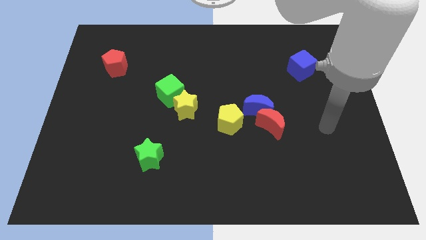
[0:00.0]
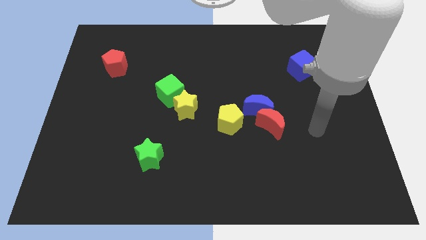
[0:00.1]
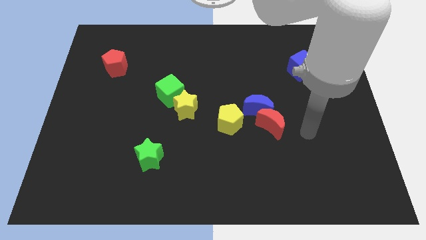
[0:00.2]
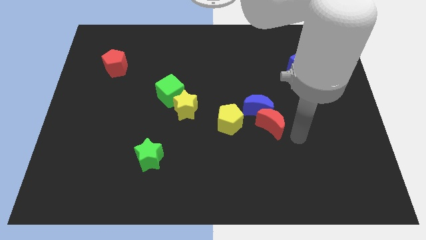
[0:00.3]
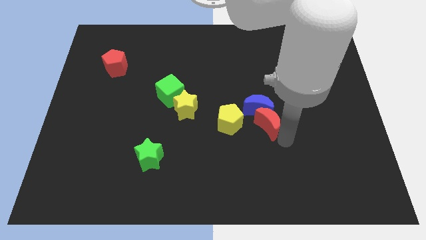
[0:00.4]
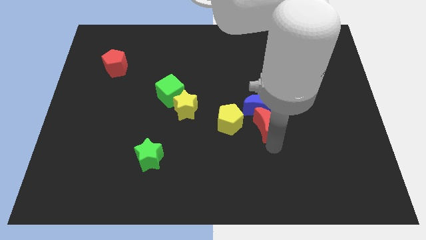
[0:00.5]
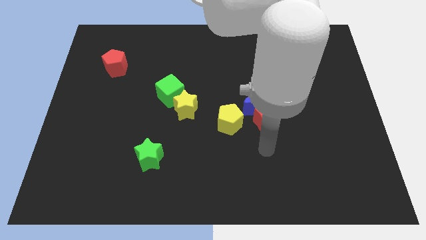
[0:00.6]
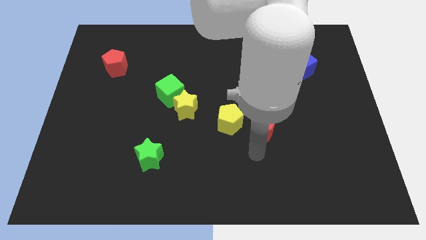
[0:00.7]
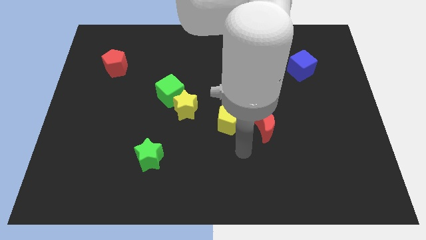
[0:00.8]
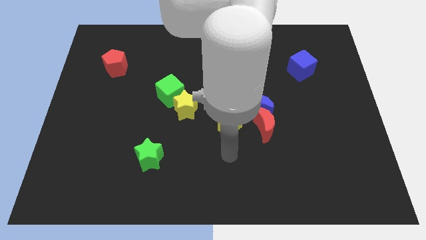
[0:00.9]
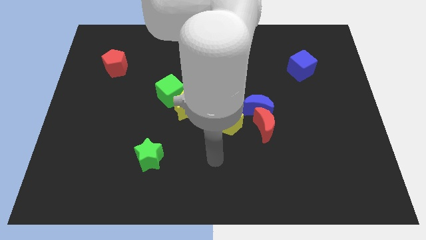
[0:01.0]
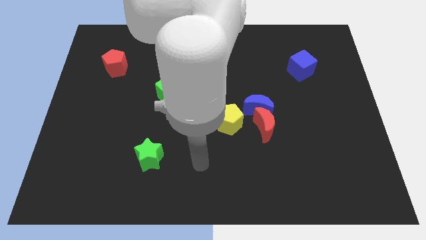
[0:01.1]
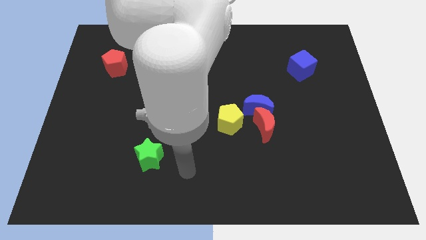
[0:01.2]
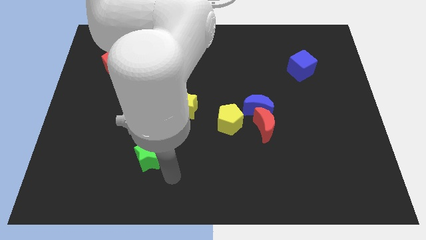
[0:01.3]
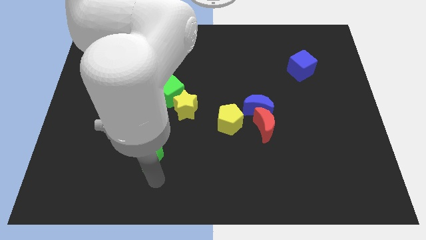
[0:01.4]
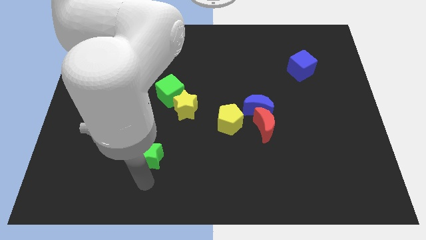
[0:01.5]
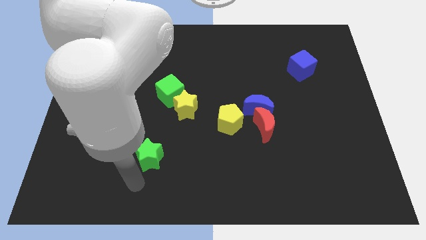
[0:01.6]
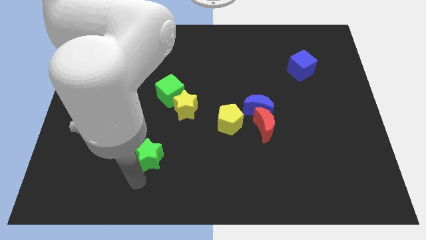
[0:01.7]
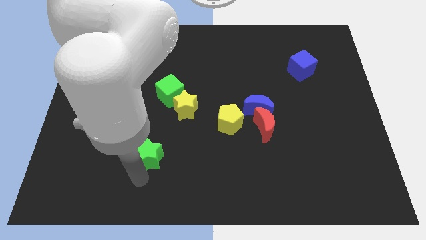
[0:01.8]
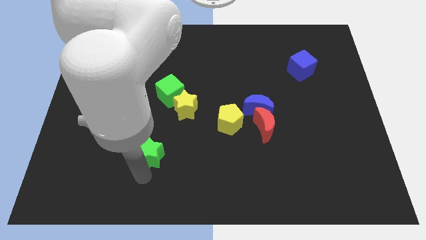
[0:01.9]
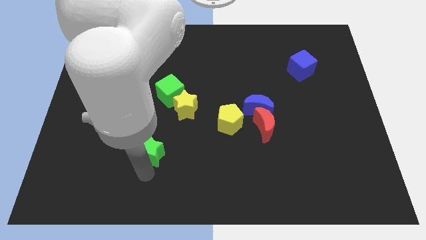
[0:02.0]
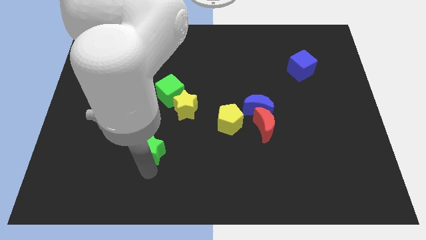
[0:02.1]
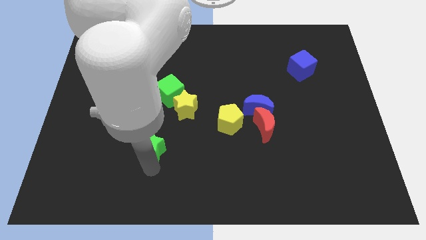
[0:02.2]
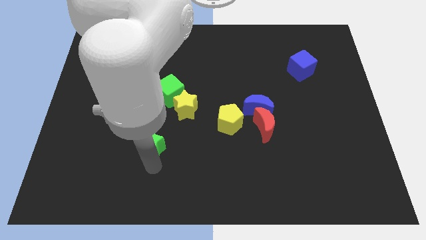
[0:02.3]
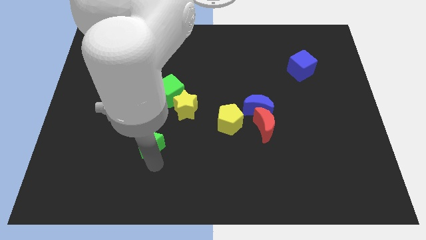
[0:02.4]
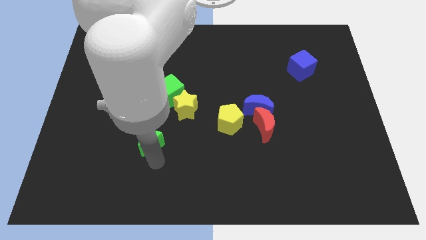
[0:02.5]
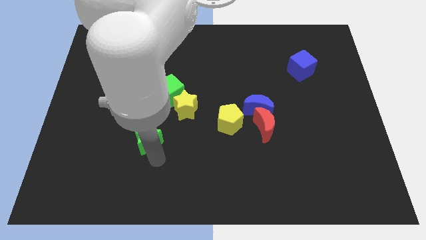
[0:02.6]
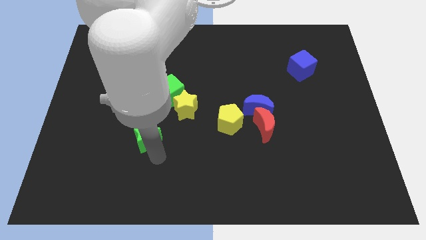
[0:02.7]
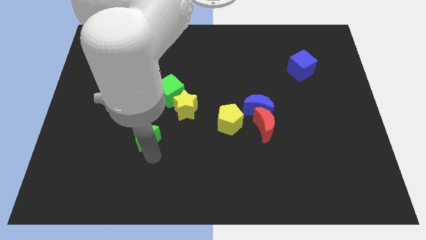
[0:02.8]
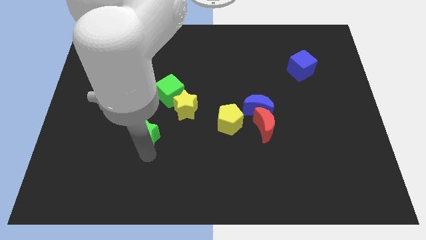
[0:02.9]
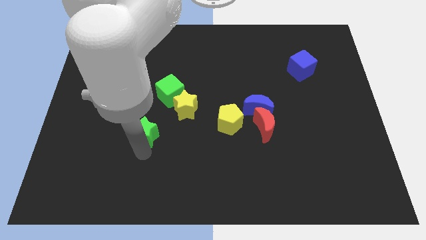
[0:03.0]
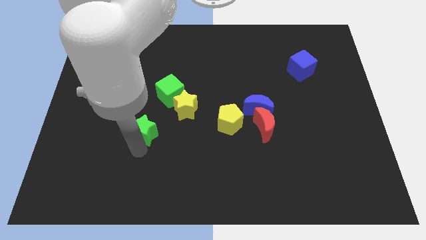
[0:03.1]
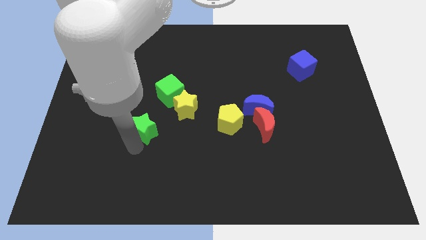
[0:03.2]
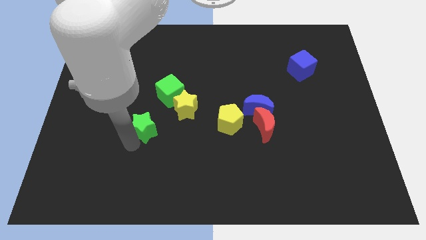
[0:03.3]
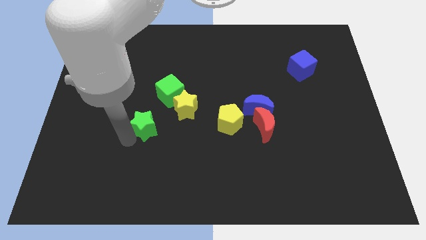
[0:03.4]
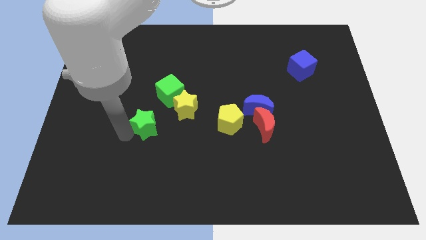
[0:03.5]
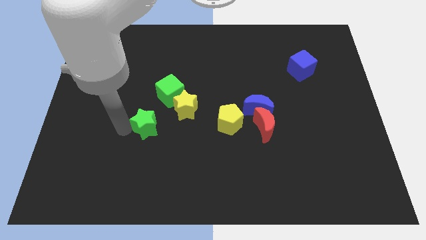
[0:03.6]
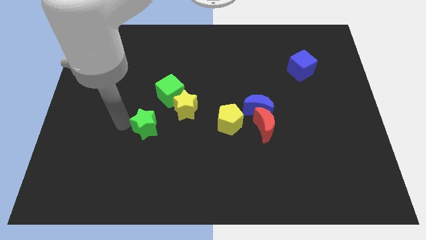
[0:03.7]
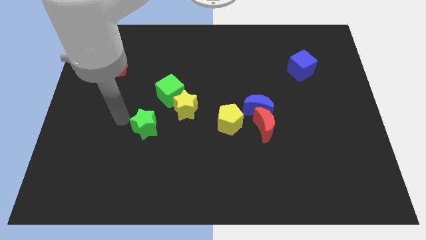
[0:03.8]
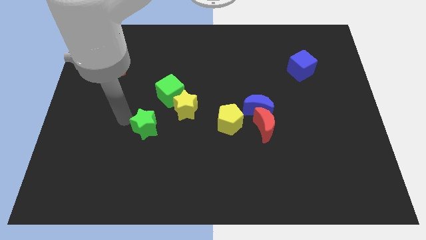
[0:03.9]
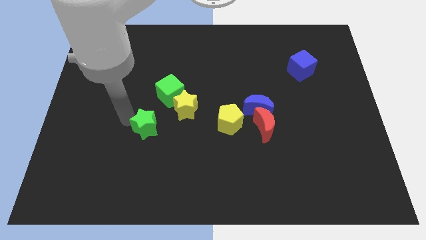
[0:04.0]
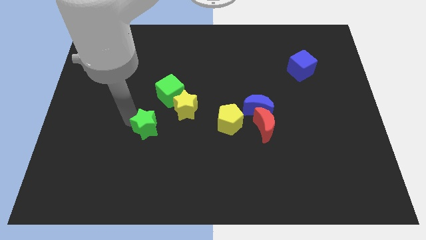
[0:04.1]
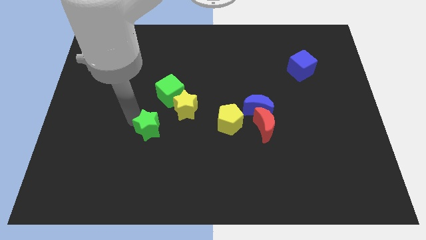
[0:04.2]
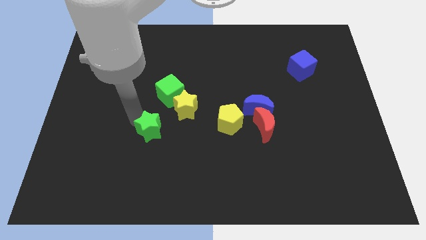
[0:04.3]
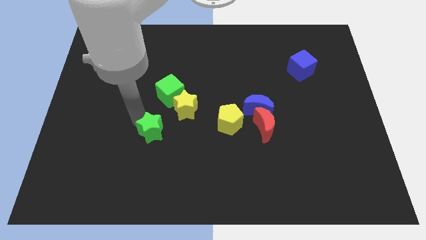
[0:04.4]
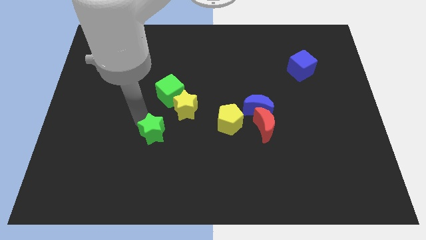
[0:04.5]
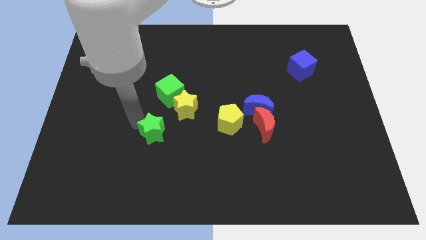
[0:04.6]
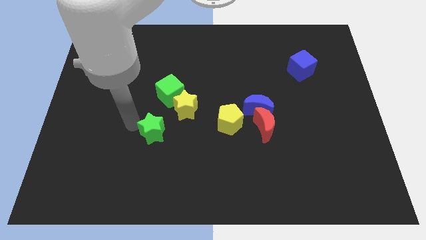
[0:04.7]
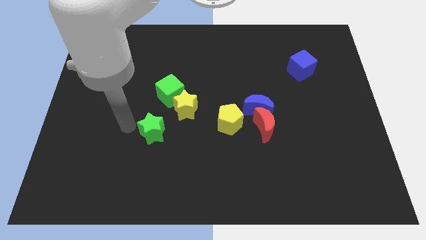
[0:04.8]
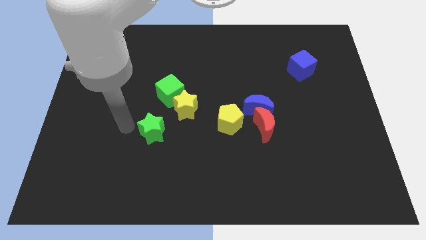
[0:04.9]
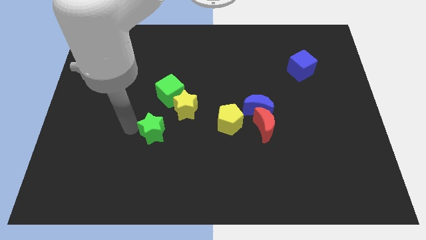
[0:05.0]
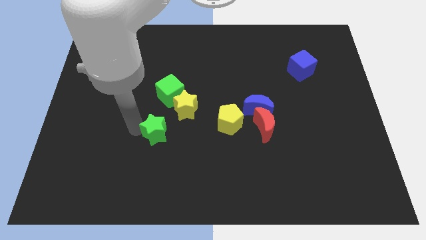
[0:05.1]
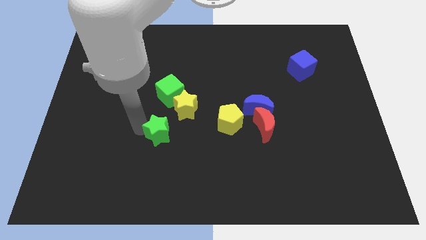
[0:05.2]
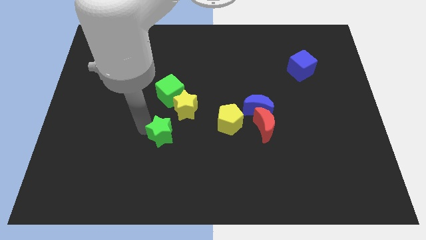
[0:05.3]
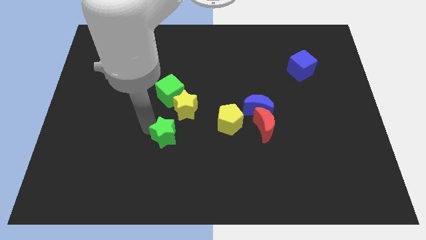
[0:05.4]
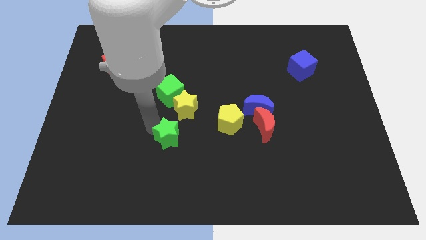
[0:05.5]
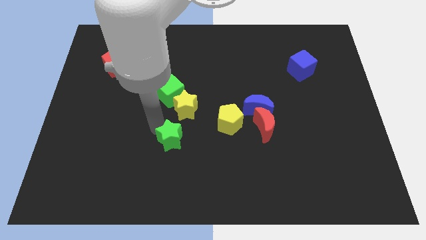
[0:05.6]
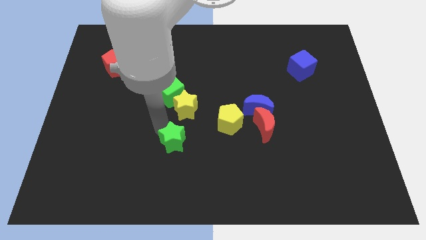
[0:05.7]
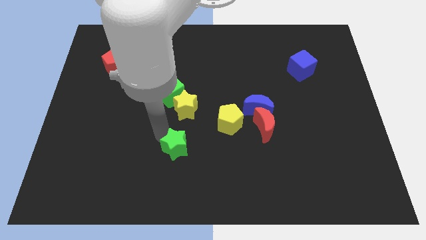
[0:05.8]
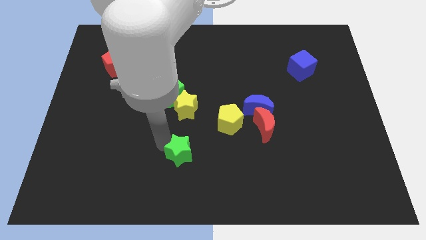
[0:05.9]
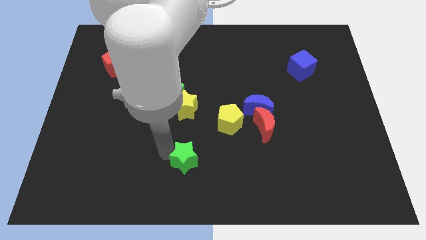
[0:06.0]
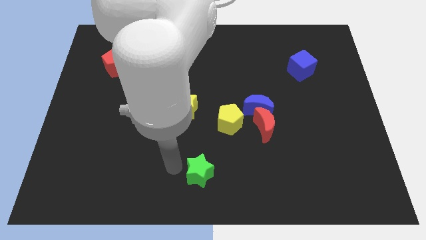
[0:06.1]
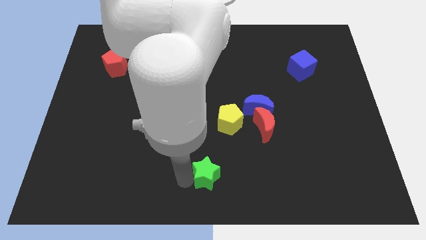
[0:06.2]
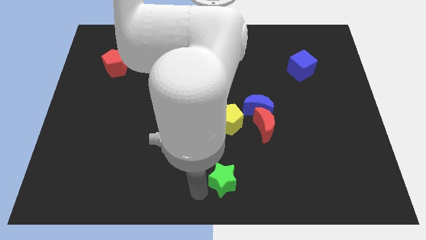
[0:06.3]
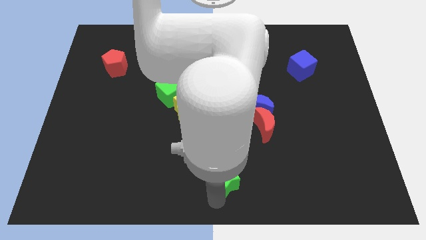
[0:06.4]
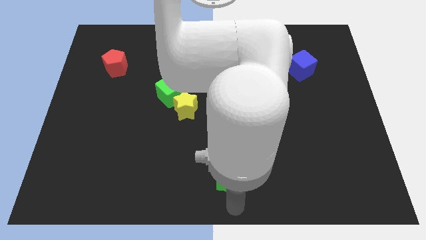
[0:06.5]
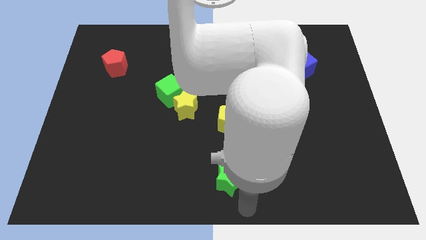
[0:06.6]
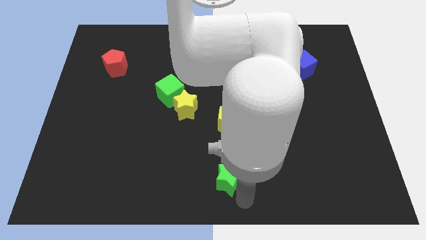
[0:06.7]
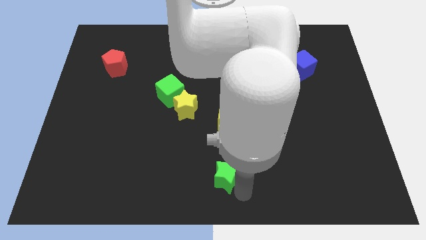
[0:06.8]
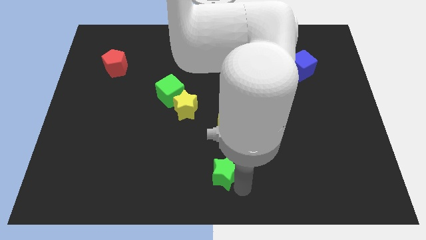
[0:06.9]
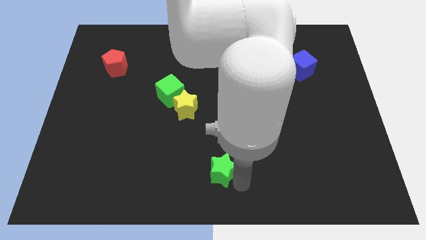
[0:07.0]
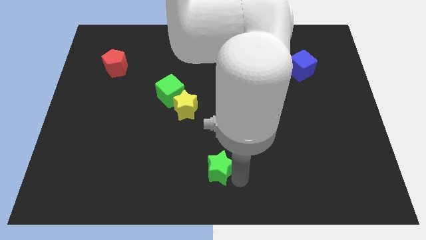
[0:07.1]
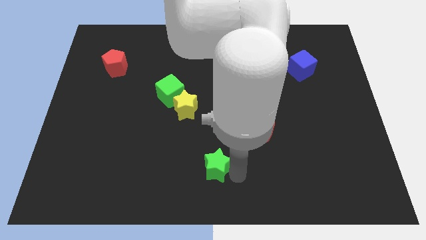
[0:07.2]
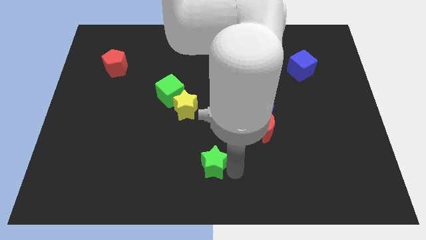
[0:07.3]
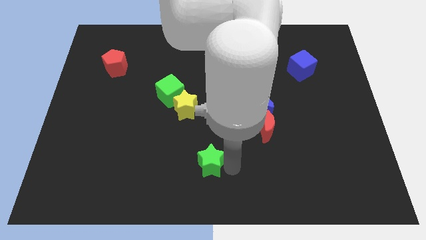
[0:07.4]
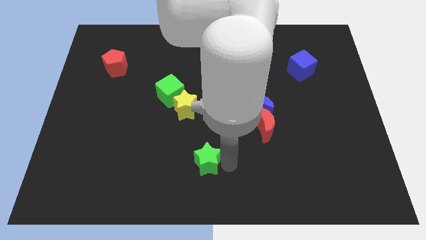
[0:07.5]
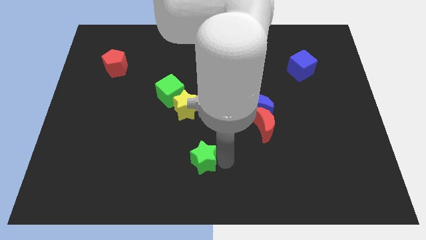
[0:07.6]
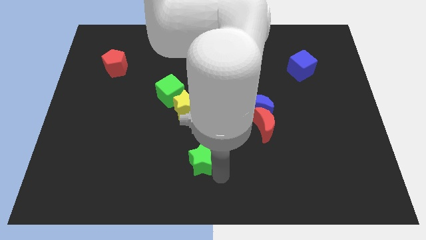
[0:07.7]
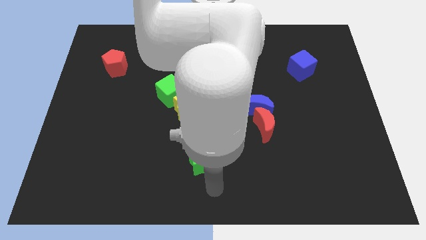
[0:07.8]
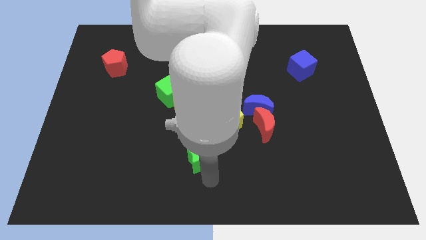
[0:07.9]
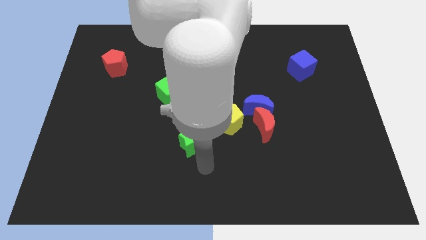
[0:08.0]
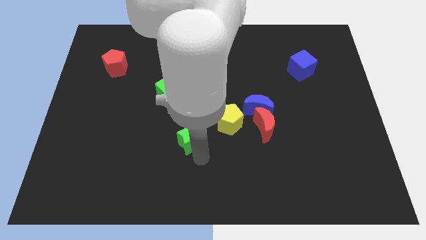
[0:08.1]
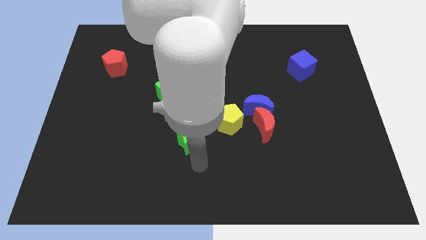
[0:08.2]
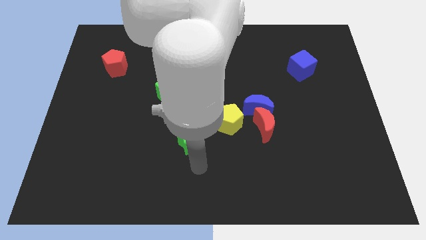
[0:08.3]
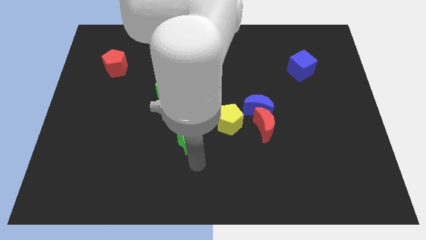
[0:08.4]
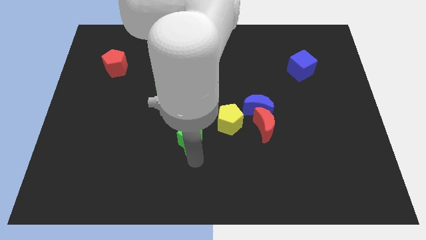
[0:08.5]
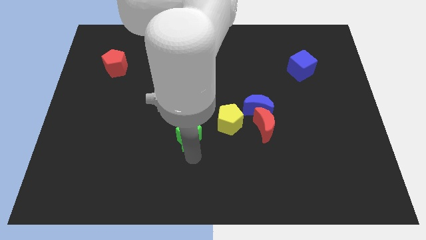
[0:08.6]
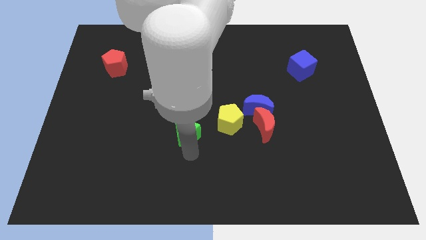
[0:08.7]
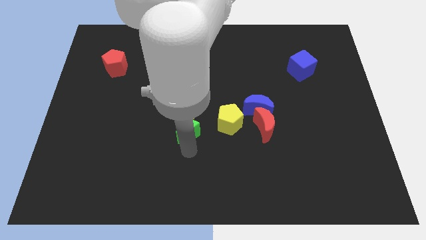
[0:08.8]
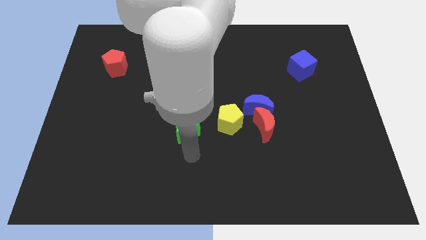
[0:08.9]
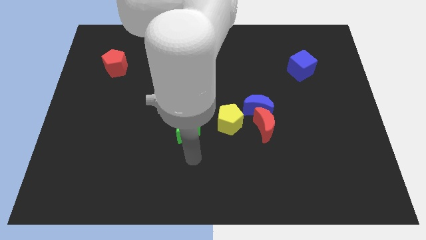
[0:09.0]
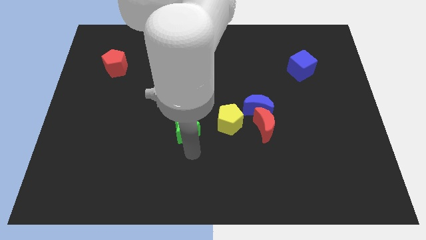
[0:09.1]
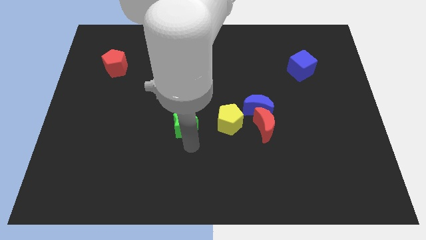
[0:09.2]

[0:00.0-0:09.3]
push the green star next to the yellow star
